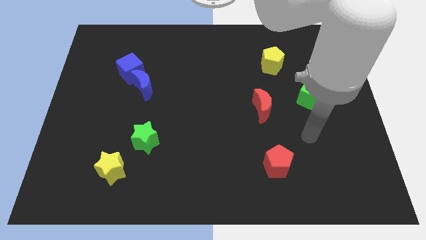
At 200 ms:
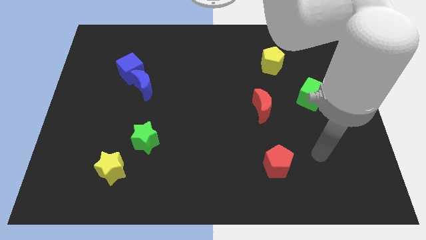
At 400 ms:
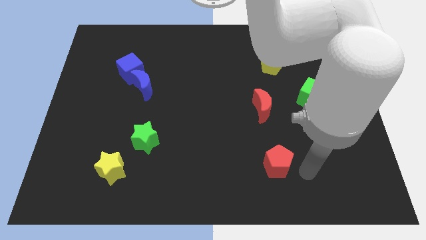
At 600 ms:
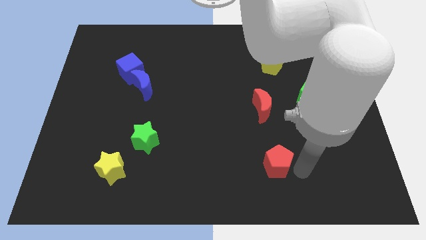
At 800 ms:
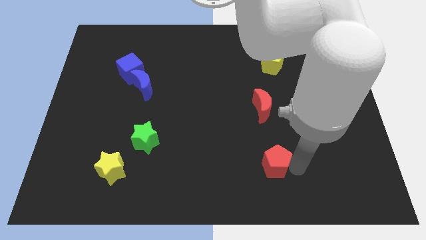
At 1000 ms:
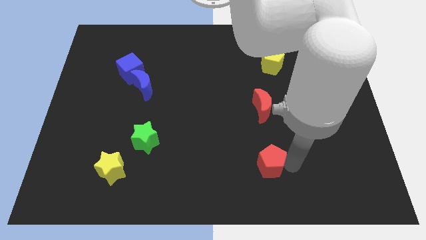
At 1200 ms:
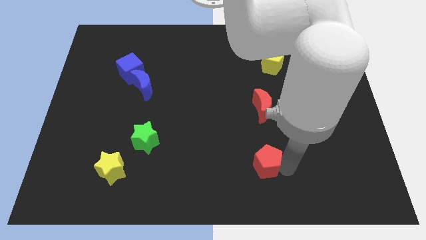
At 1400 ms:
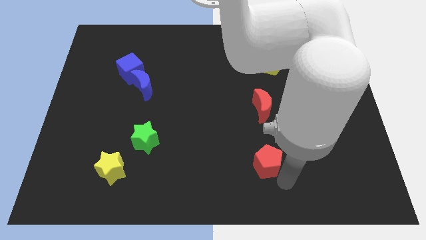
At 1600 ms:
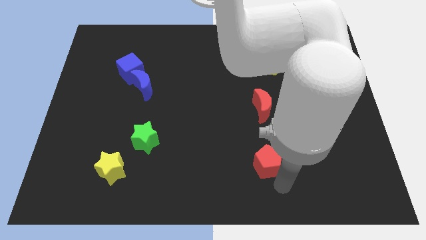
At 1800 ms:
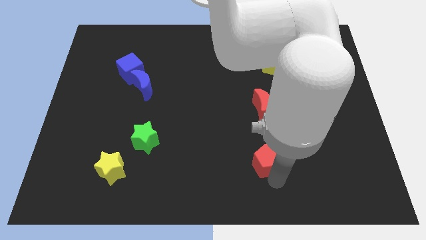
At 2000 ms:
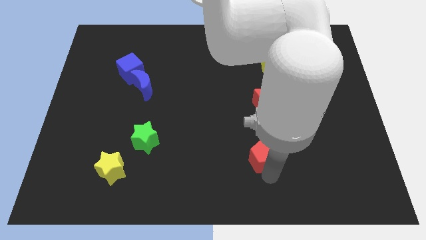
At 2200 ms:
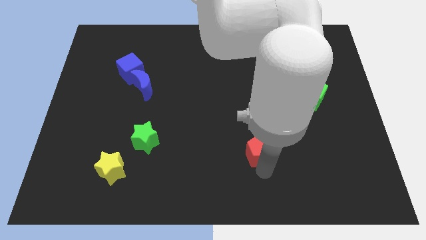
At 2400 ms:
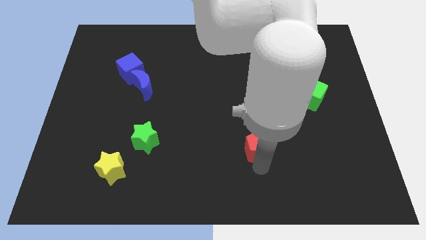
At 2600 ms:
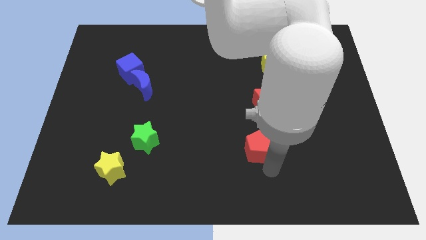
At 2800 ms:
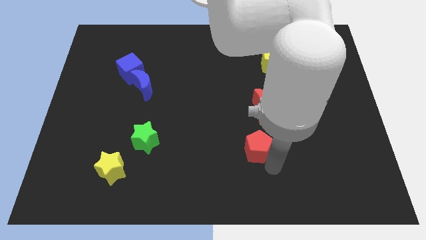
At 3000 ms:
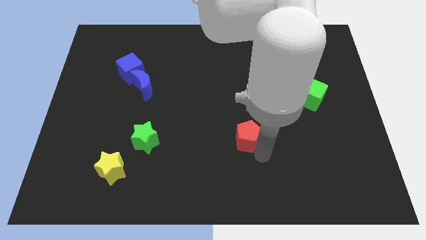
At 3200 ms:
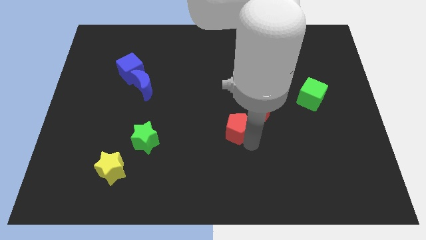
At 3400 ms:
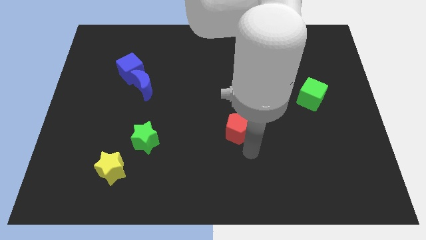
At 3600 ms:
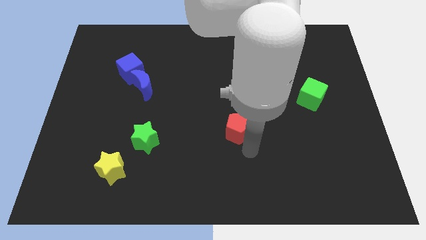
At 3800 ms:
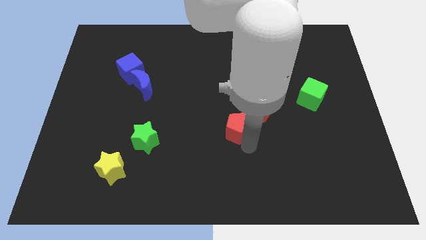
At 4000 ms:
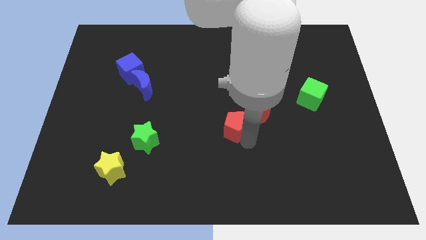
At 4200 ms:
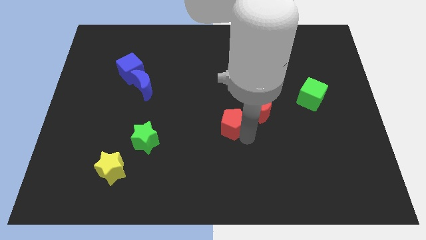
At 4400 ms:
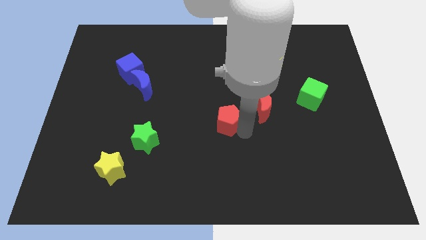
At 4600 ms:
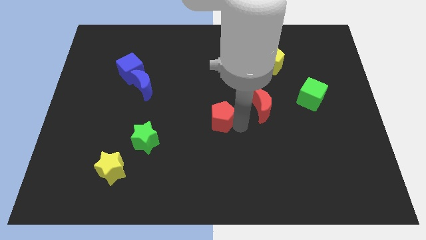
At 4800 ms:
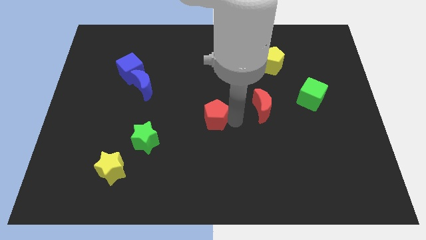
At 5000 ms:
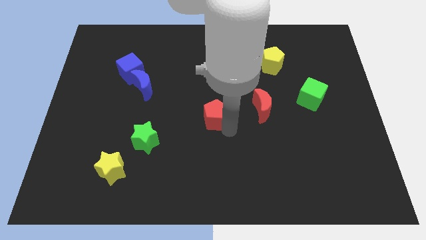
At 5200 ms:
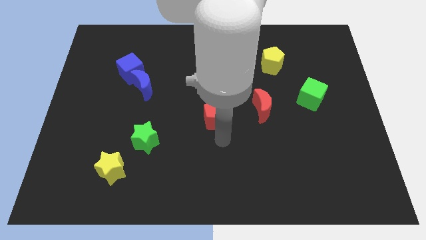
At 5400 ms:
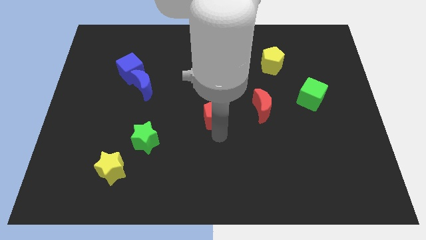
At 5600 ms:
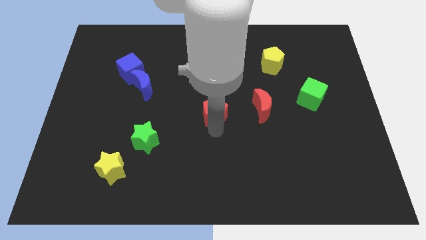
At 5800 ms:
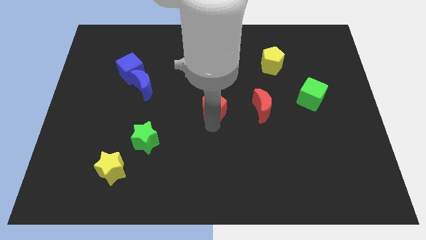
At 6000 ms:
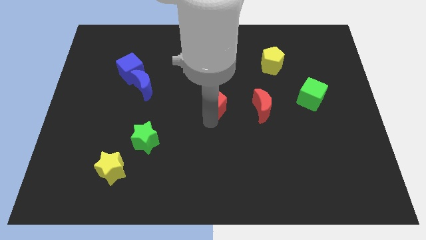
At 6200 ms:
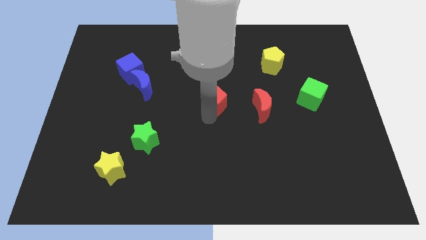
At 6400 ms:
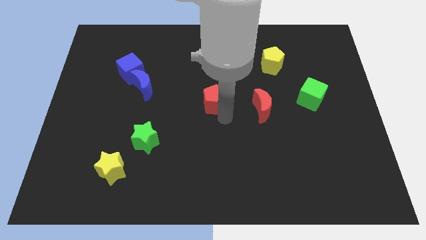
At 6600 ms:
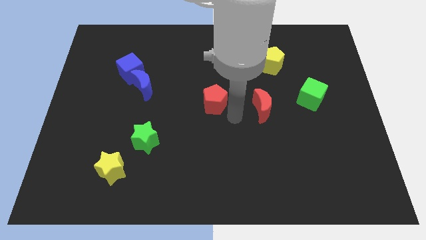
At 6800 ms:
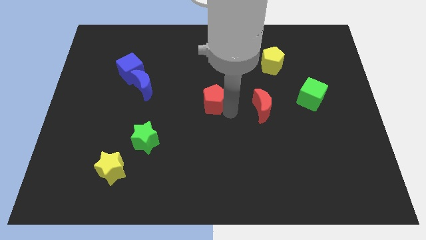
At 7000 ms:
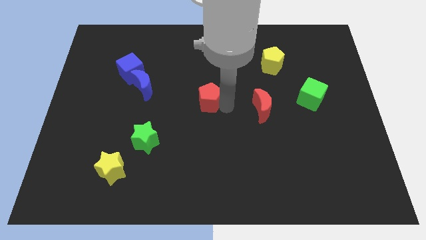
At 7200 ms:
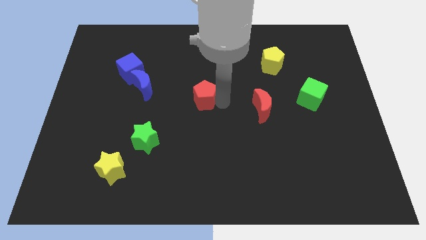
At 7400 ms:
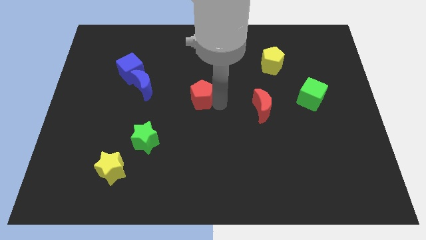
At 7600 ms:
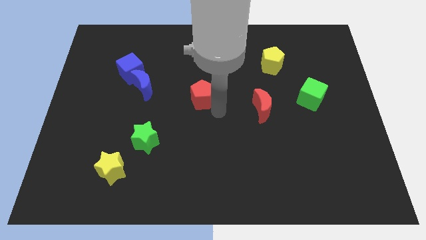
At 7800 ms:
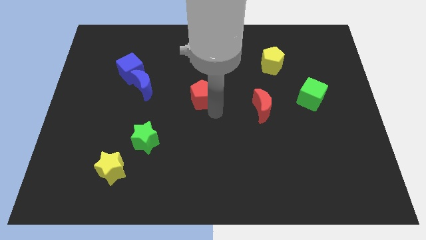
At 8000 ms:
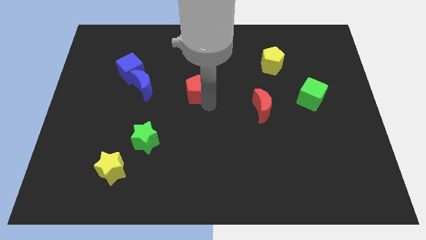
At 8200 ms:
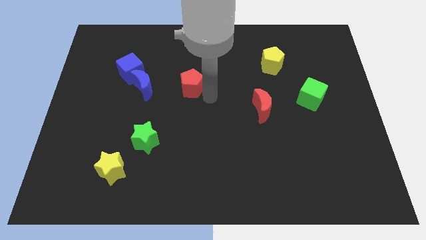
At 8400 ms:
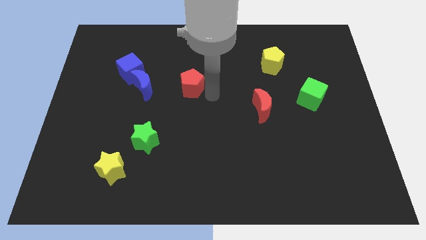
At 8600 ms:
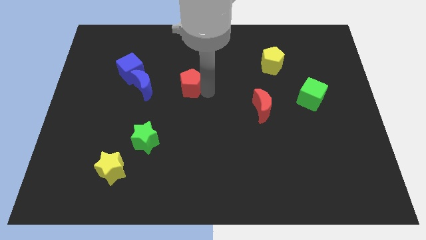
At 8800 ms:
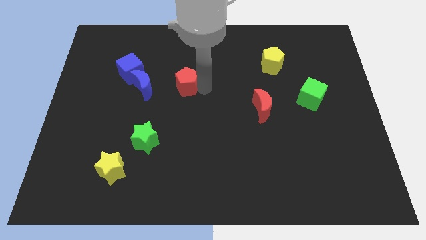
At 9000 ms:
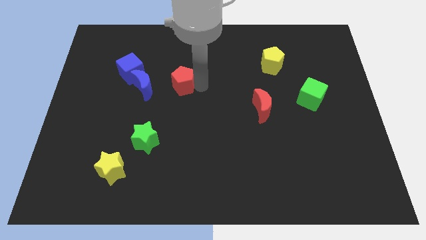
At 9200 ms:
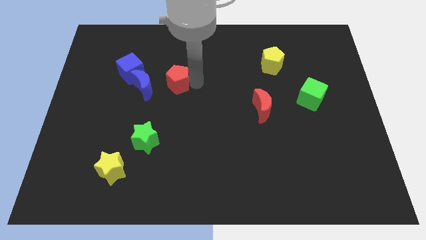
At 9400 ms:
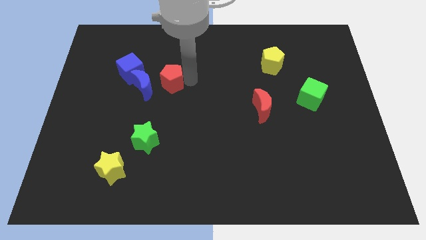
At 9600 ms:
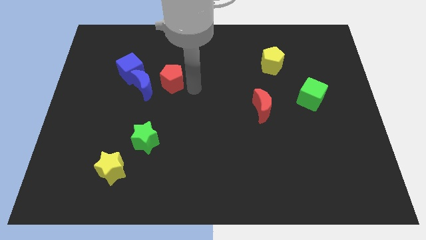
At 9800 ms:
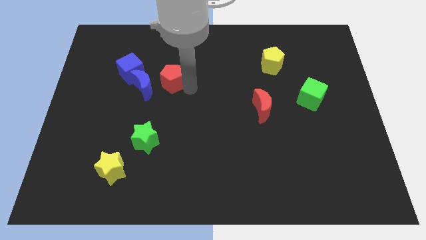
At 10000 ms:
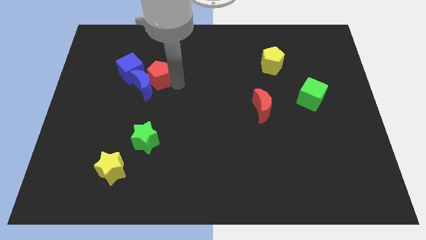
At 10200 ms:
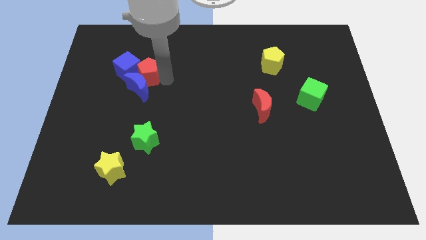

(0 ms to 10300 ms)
move the red pentagon next to the blue cube

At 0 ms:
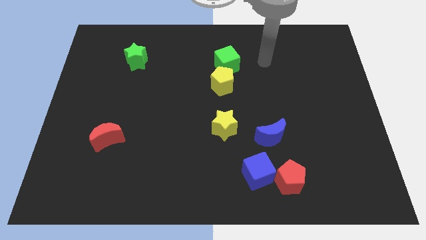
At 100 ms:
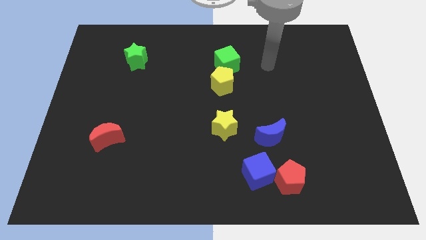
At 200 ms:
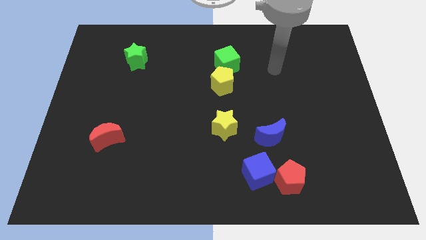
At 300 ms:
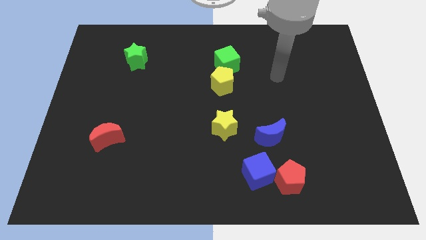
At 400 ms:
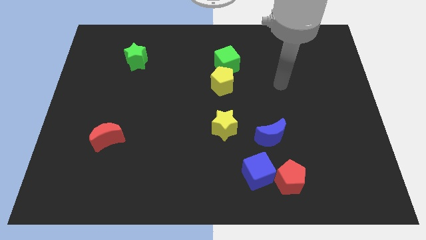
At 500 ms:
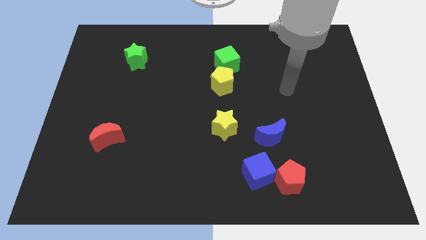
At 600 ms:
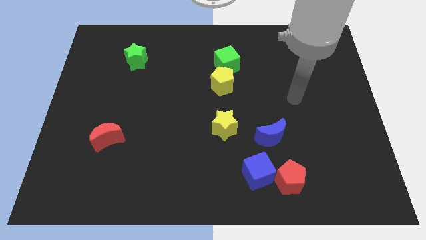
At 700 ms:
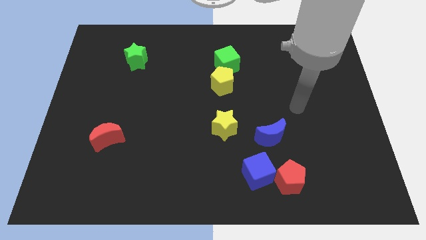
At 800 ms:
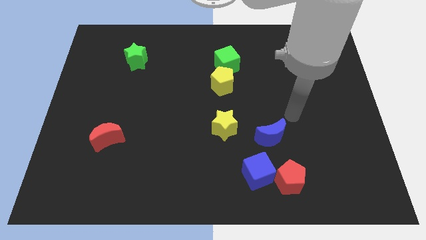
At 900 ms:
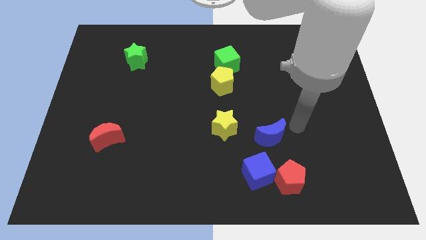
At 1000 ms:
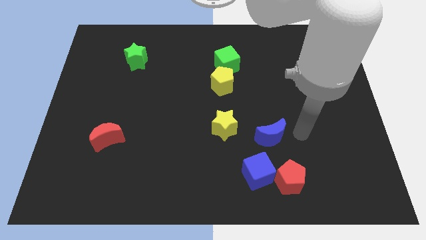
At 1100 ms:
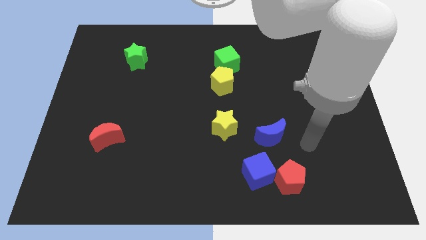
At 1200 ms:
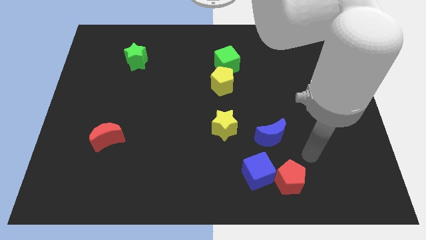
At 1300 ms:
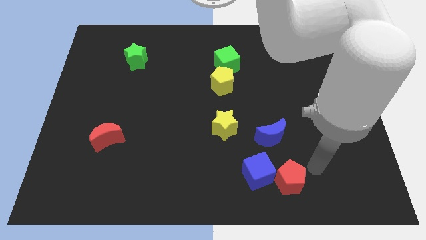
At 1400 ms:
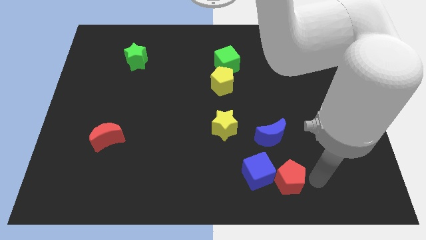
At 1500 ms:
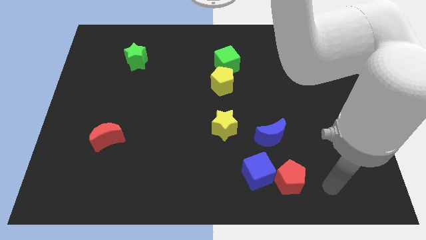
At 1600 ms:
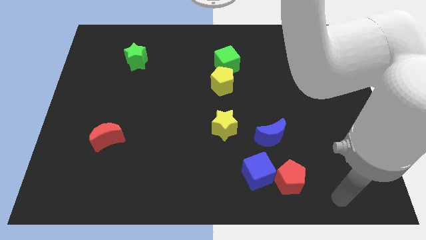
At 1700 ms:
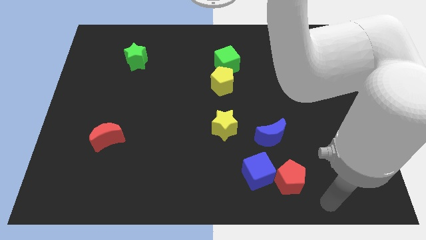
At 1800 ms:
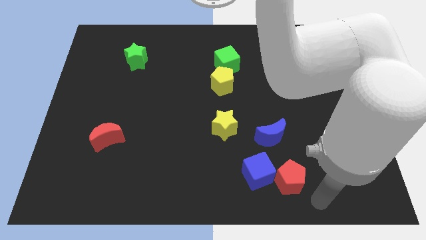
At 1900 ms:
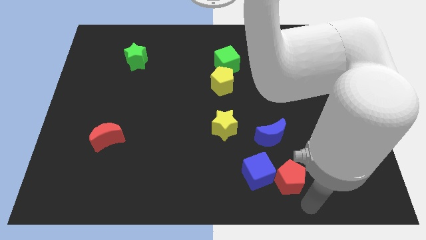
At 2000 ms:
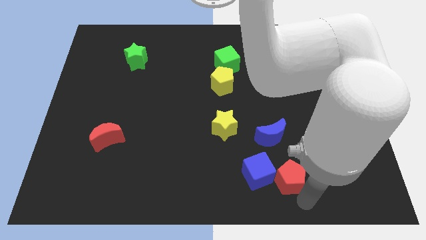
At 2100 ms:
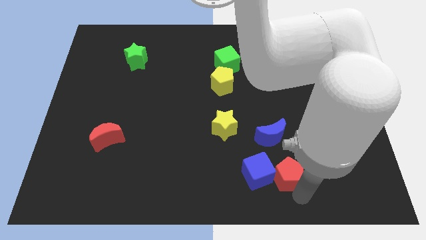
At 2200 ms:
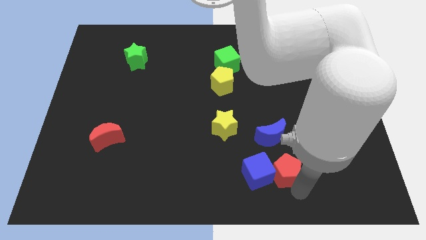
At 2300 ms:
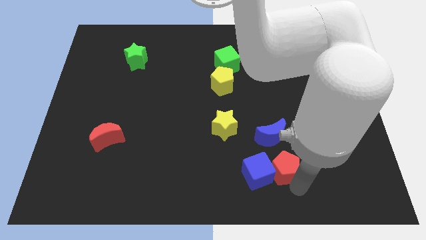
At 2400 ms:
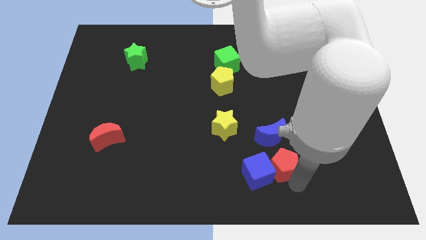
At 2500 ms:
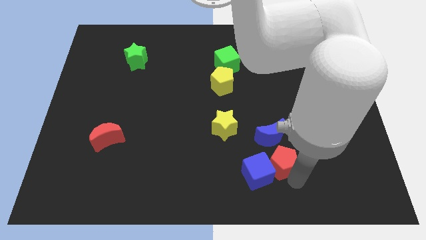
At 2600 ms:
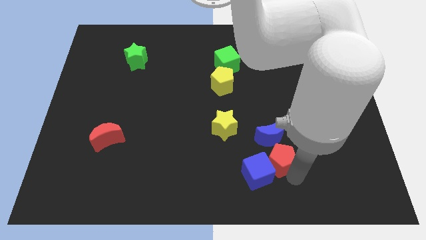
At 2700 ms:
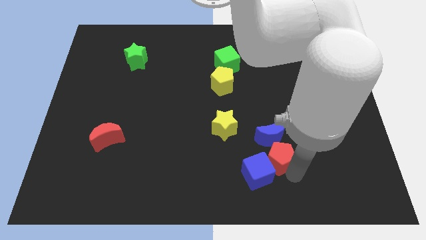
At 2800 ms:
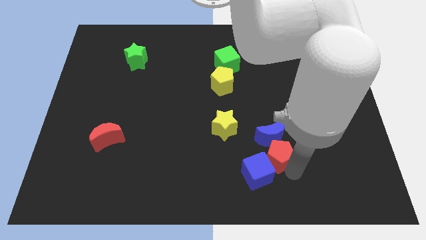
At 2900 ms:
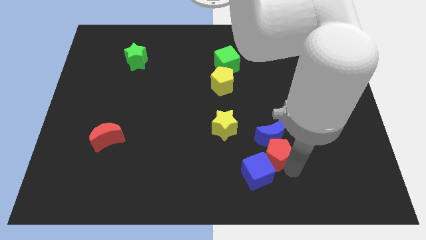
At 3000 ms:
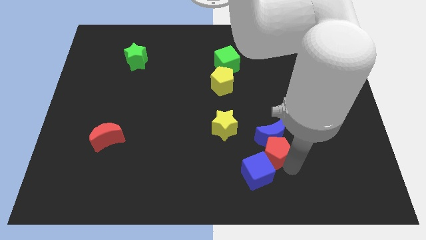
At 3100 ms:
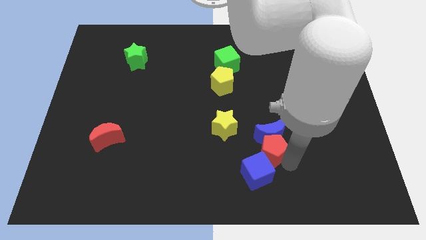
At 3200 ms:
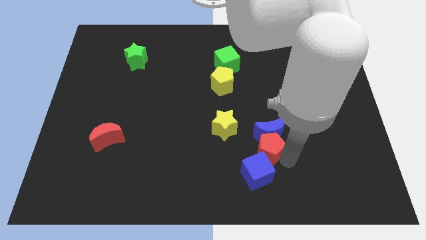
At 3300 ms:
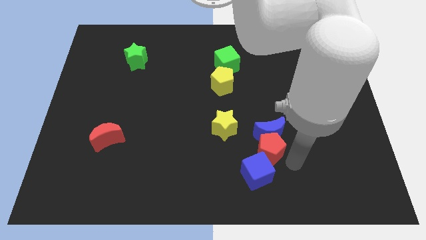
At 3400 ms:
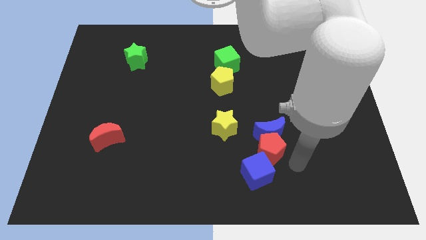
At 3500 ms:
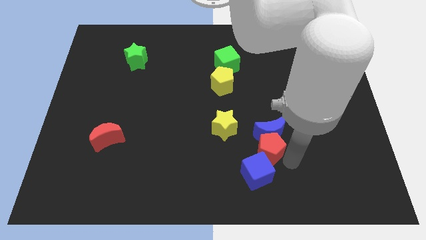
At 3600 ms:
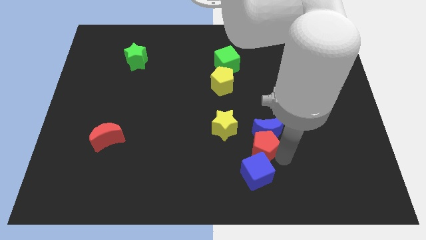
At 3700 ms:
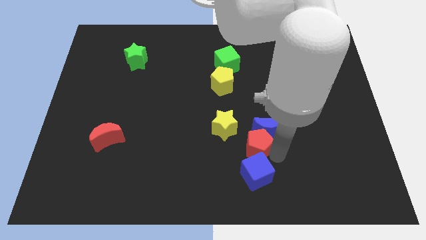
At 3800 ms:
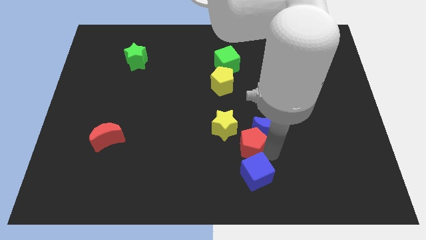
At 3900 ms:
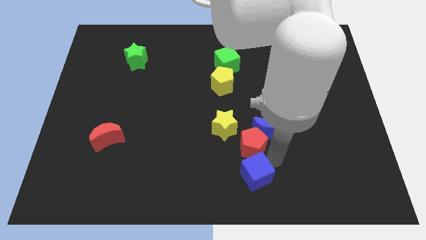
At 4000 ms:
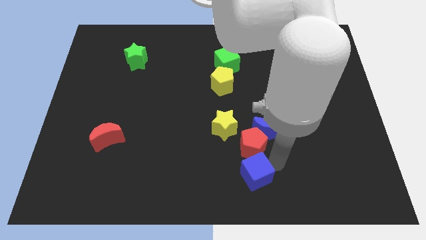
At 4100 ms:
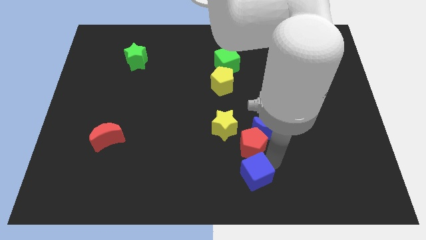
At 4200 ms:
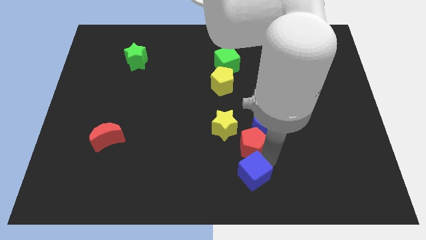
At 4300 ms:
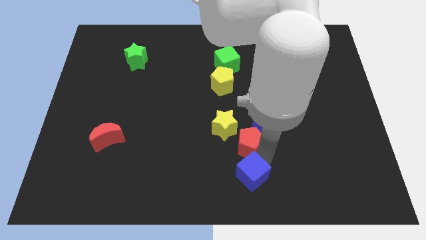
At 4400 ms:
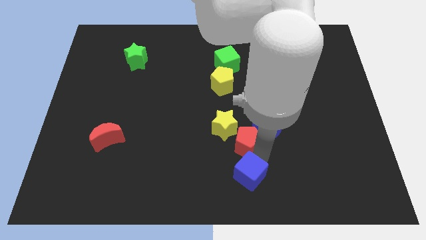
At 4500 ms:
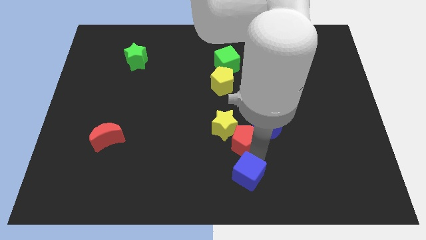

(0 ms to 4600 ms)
slide the red pentagon to the yellow star
